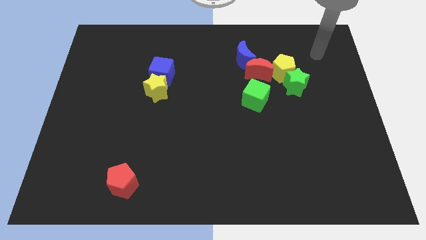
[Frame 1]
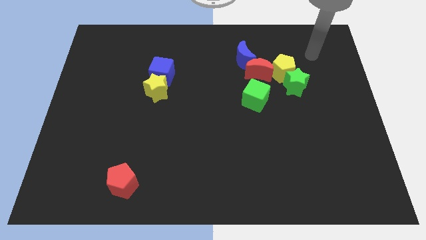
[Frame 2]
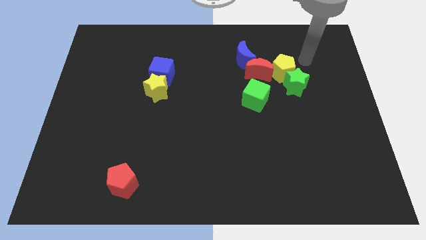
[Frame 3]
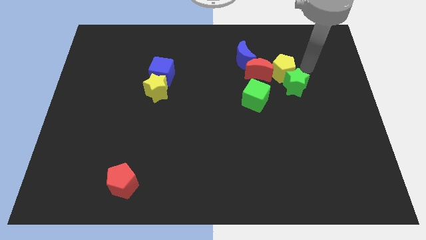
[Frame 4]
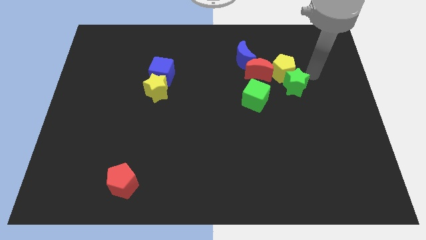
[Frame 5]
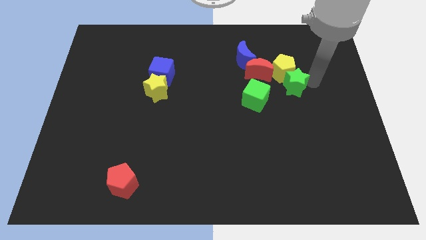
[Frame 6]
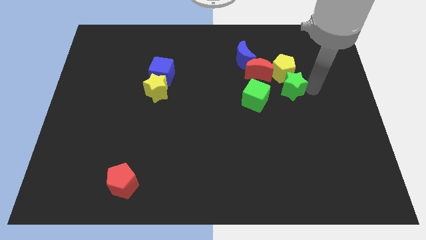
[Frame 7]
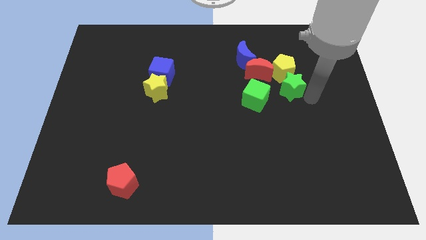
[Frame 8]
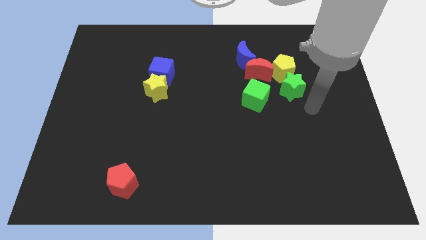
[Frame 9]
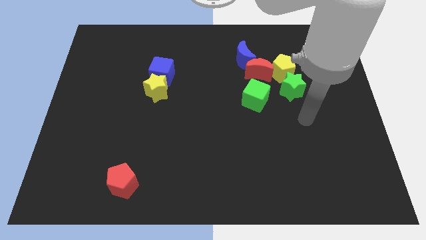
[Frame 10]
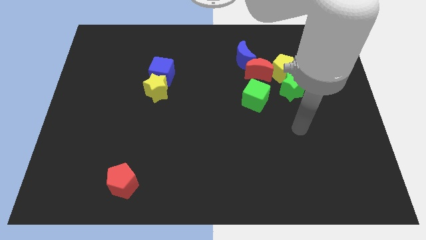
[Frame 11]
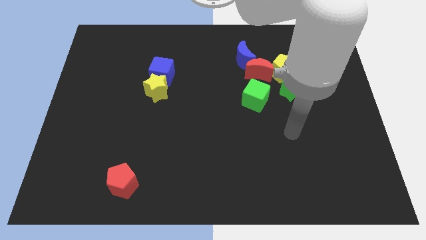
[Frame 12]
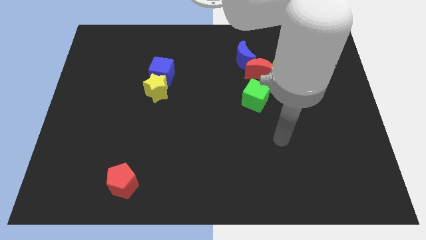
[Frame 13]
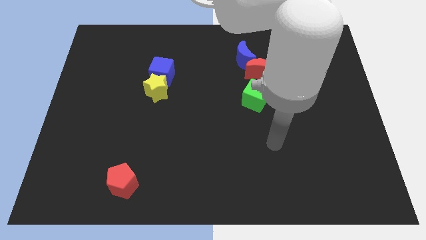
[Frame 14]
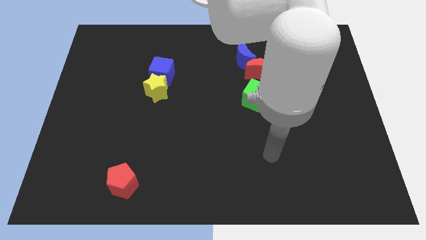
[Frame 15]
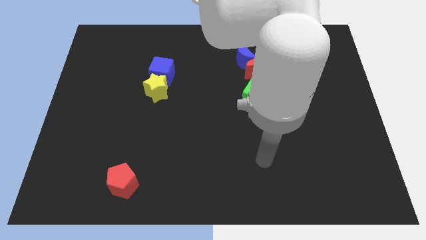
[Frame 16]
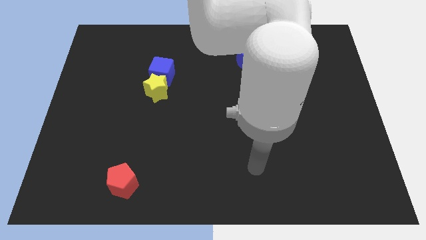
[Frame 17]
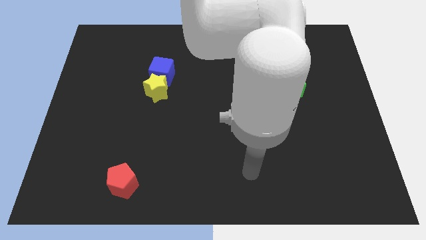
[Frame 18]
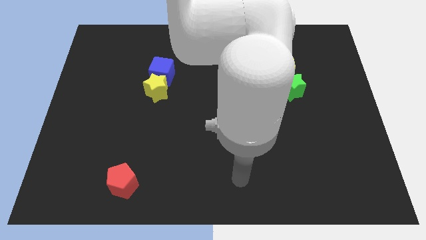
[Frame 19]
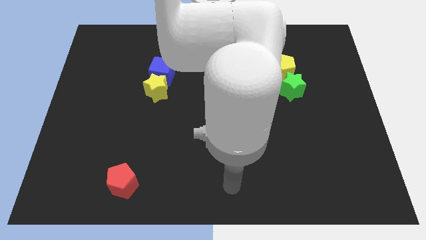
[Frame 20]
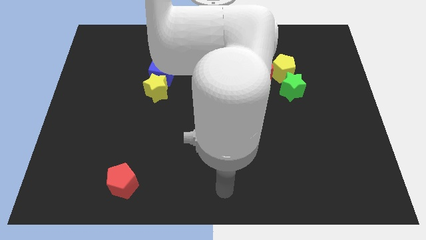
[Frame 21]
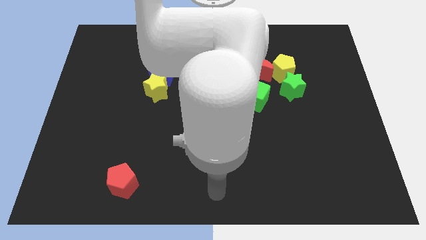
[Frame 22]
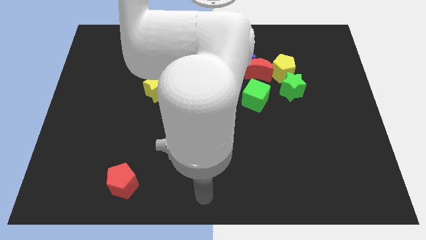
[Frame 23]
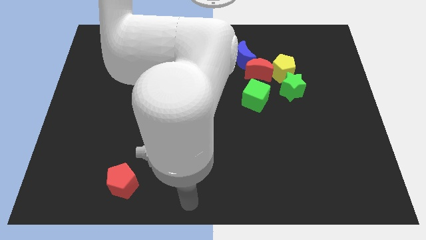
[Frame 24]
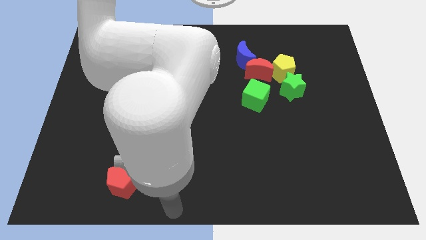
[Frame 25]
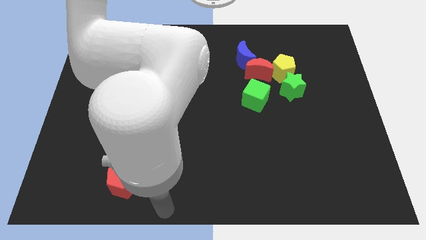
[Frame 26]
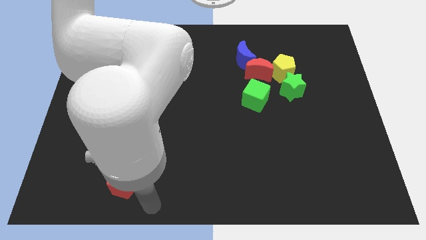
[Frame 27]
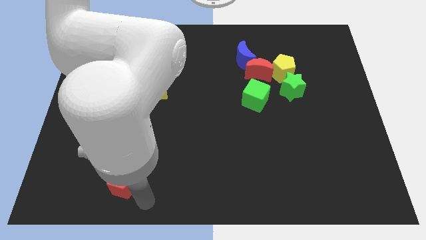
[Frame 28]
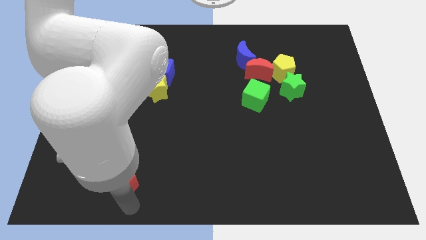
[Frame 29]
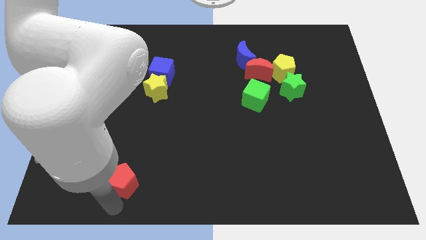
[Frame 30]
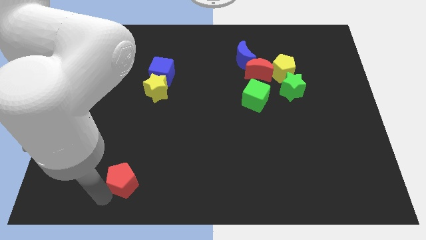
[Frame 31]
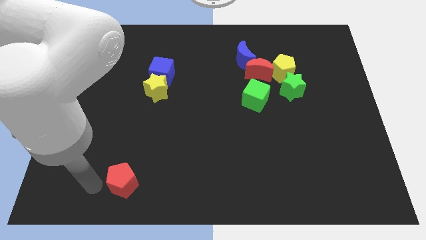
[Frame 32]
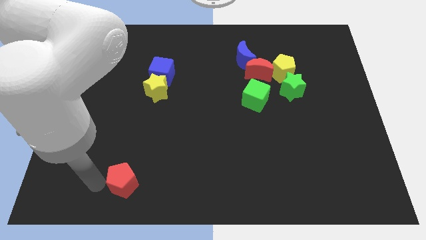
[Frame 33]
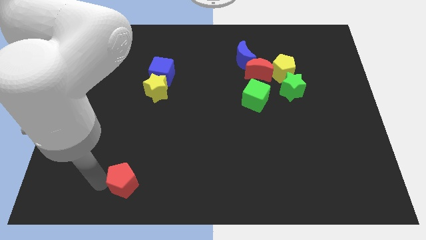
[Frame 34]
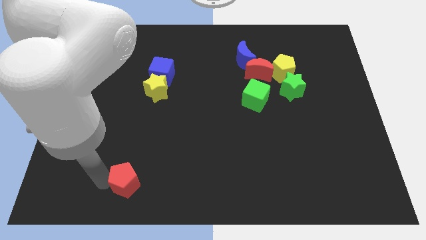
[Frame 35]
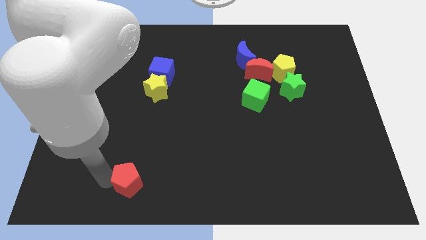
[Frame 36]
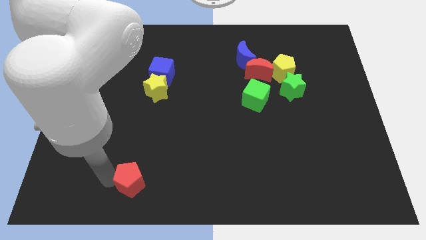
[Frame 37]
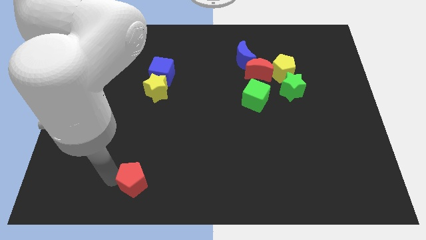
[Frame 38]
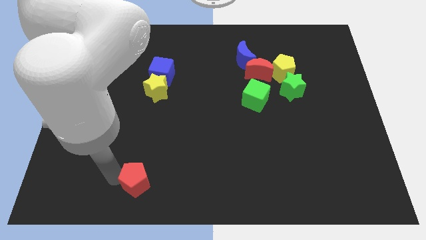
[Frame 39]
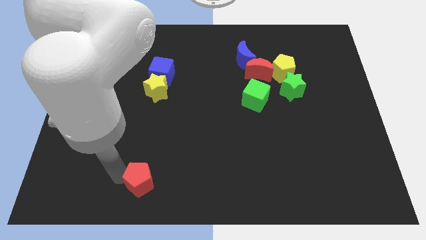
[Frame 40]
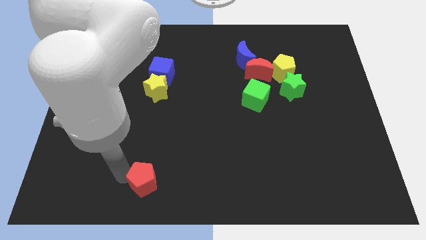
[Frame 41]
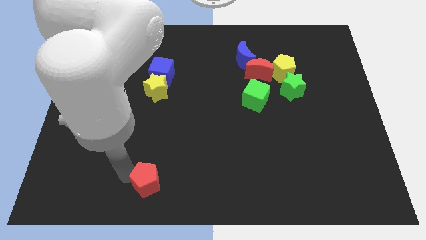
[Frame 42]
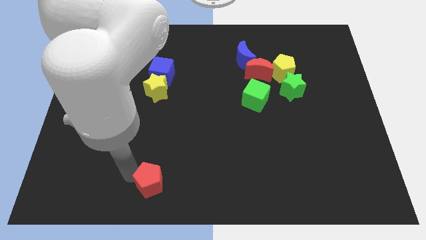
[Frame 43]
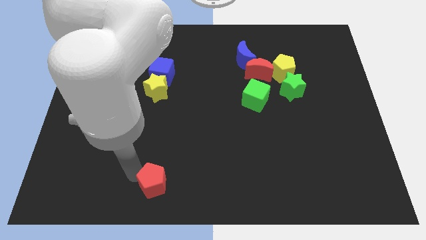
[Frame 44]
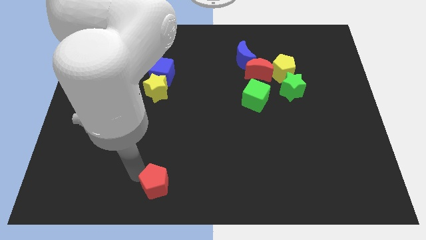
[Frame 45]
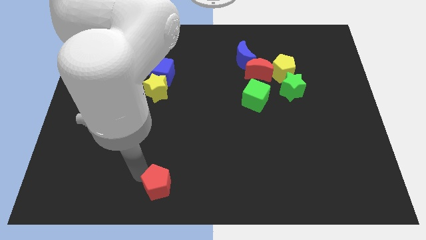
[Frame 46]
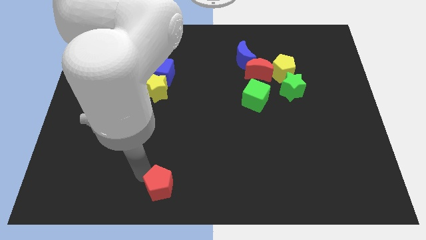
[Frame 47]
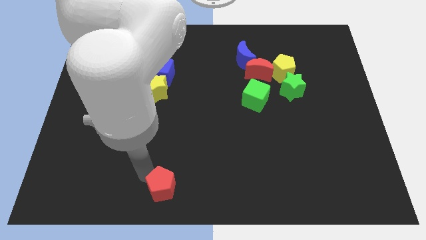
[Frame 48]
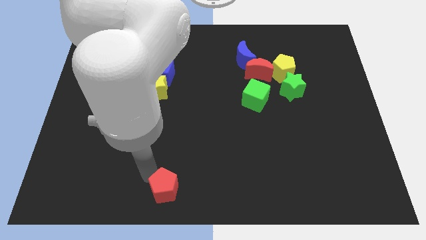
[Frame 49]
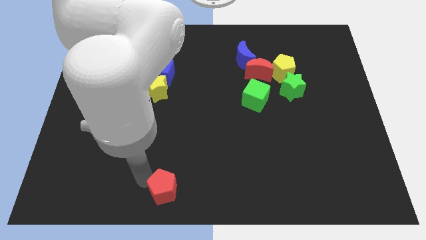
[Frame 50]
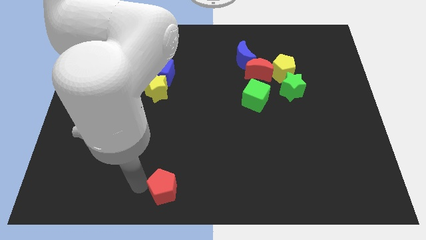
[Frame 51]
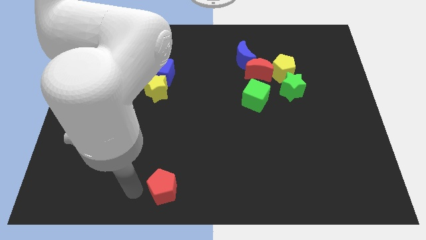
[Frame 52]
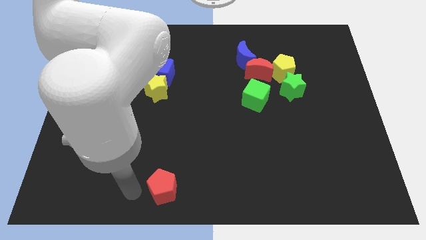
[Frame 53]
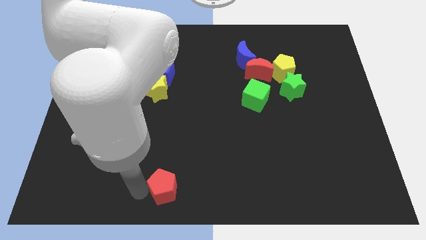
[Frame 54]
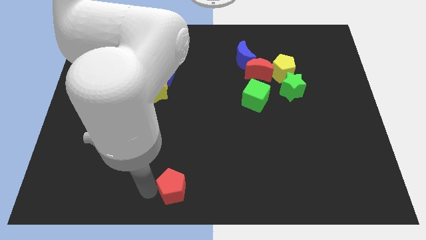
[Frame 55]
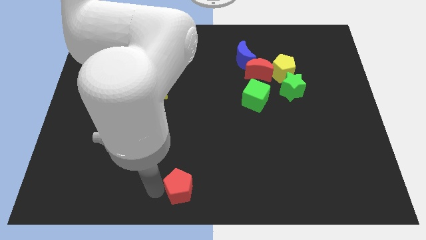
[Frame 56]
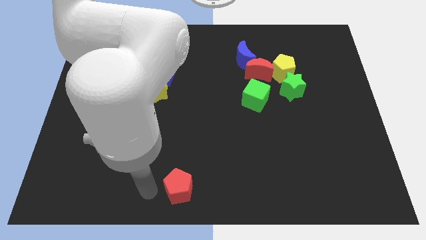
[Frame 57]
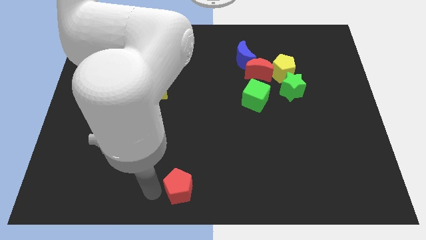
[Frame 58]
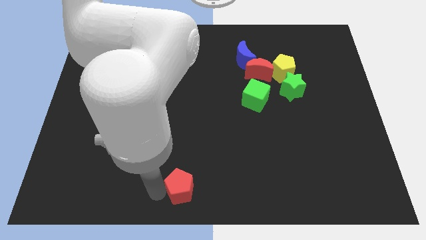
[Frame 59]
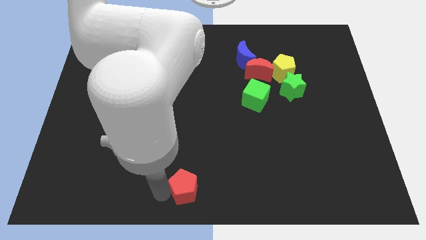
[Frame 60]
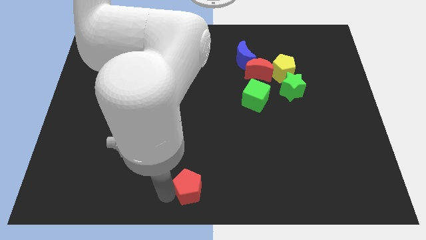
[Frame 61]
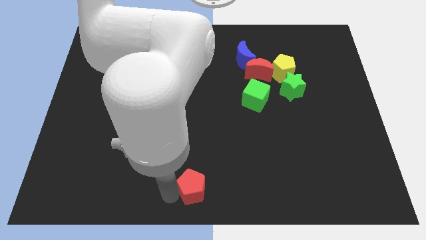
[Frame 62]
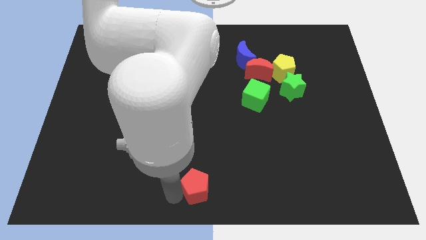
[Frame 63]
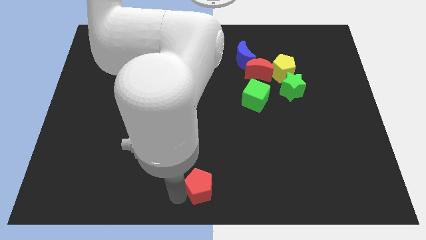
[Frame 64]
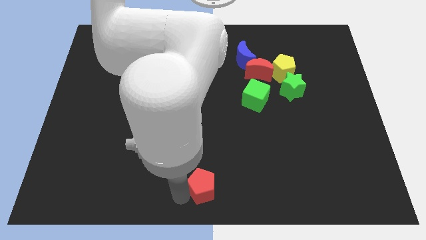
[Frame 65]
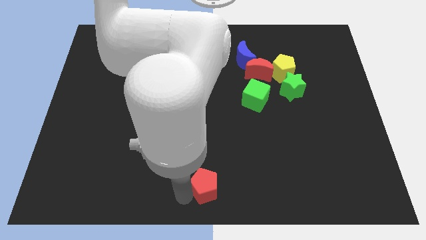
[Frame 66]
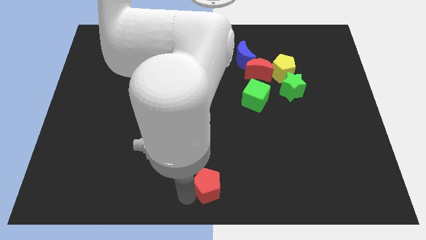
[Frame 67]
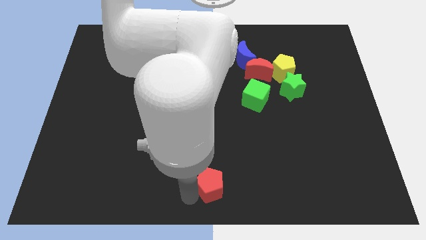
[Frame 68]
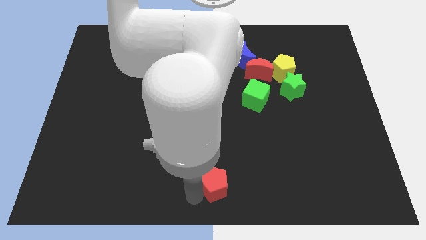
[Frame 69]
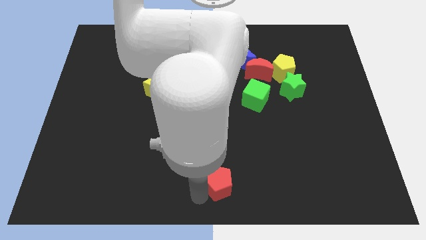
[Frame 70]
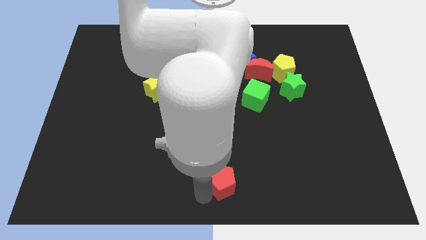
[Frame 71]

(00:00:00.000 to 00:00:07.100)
slide the red pentagon right

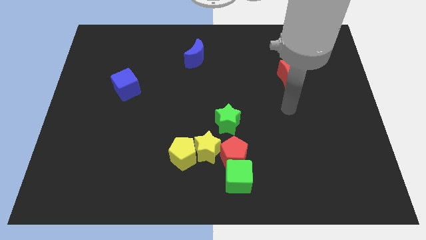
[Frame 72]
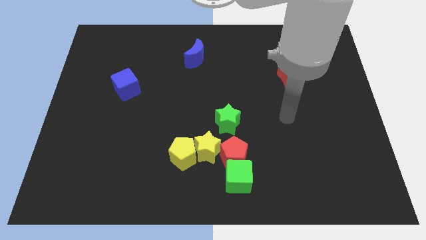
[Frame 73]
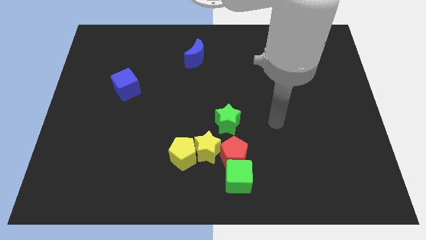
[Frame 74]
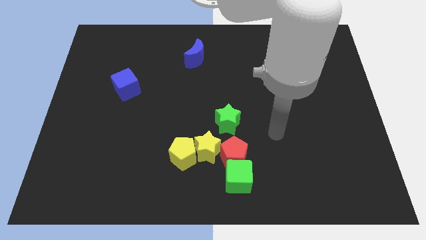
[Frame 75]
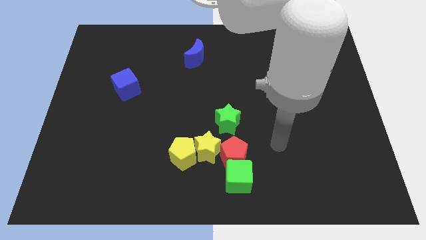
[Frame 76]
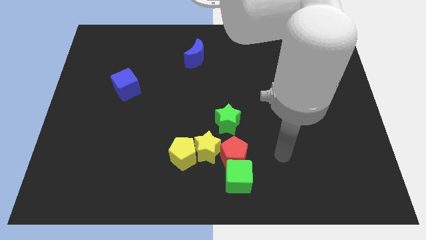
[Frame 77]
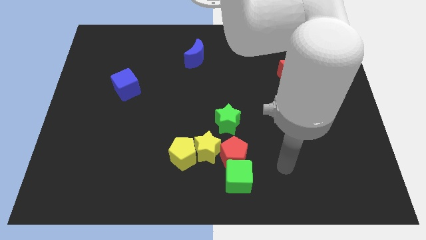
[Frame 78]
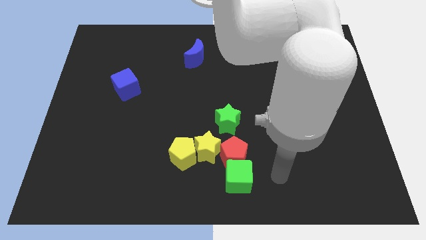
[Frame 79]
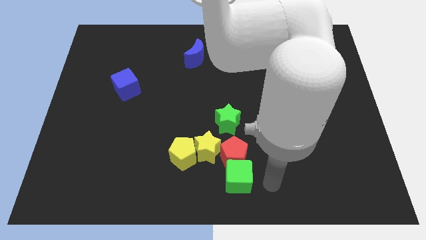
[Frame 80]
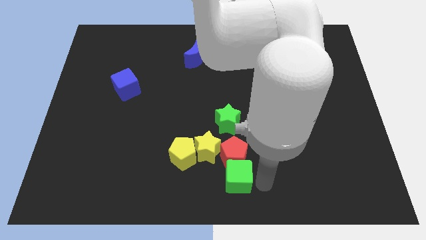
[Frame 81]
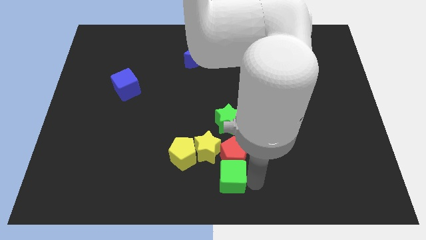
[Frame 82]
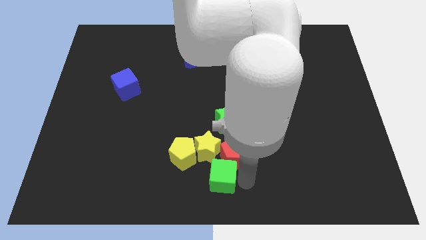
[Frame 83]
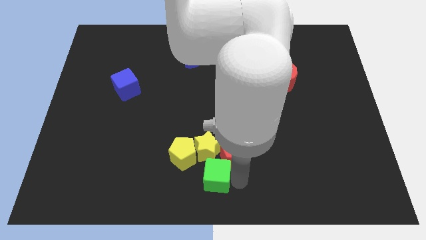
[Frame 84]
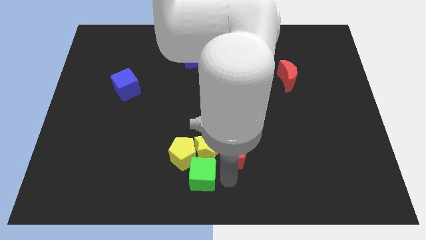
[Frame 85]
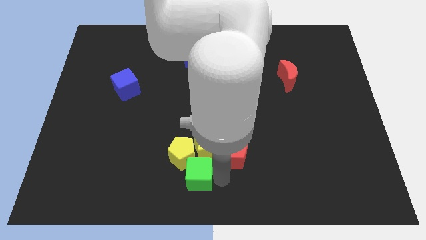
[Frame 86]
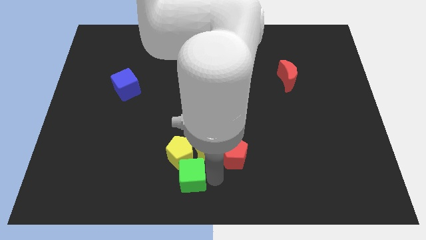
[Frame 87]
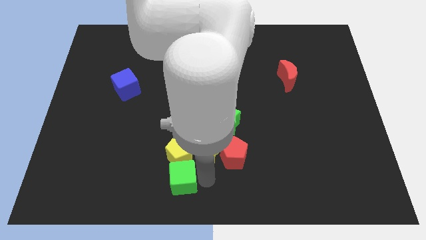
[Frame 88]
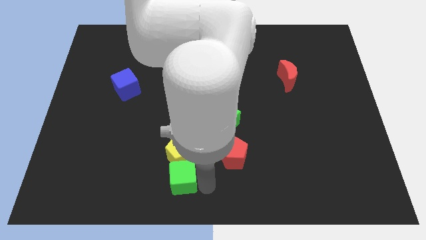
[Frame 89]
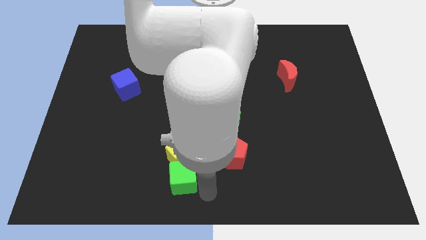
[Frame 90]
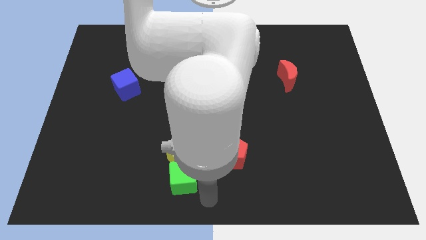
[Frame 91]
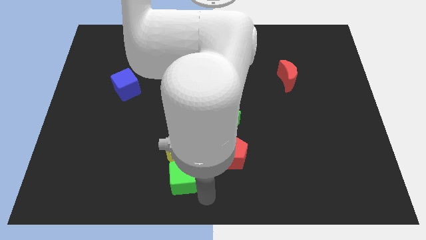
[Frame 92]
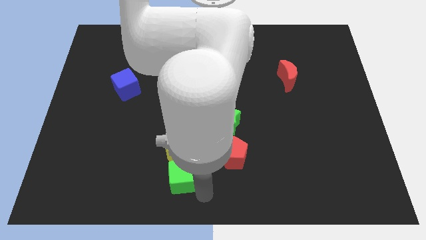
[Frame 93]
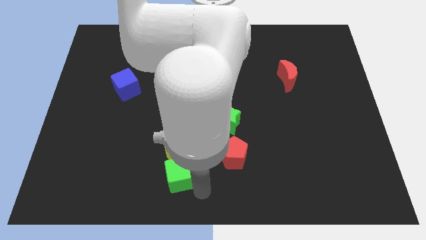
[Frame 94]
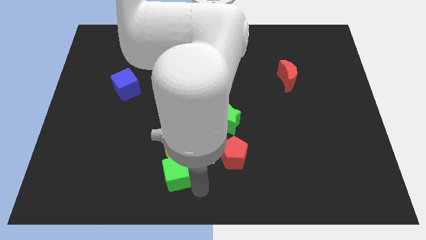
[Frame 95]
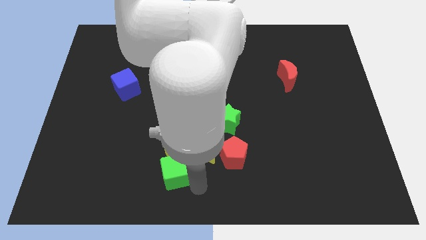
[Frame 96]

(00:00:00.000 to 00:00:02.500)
push the green cube somewhat up and left
